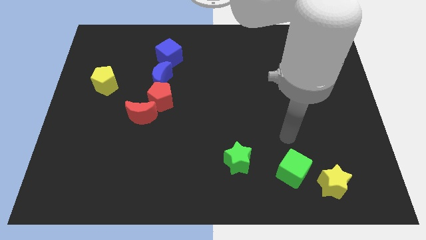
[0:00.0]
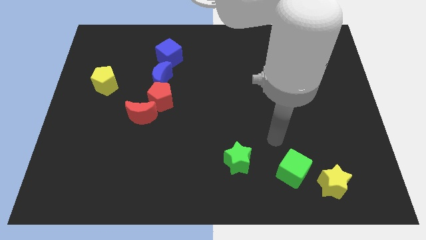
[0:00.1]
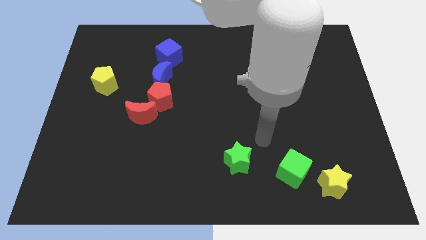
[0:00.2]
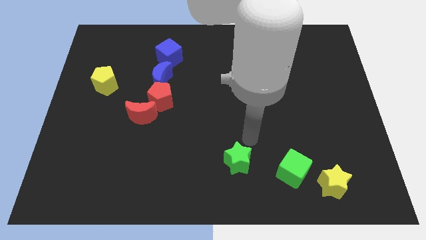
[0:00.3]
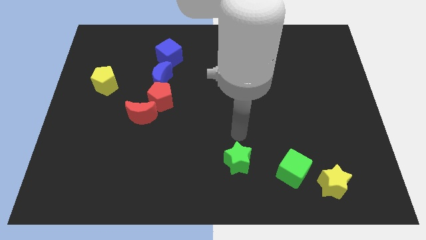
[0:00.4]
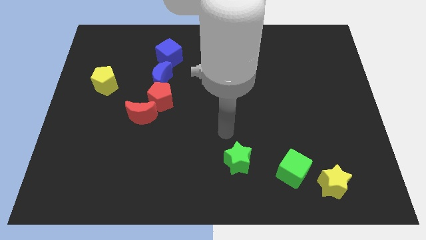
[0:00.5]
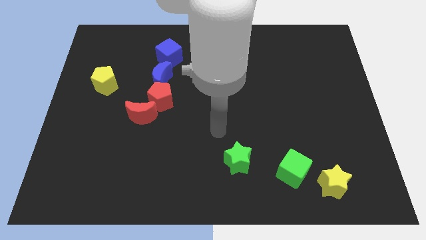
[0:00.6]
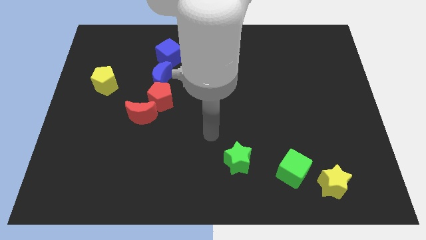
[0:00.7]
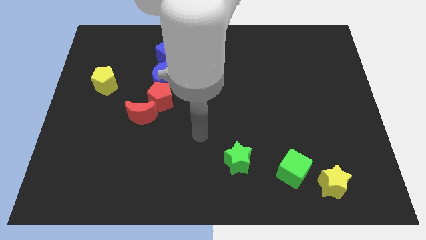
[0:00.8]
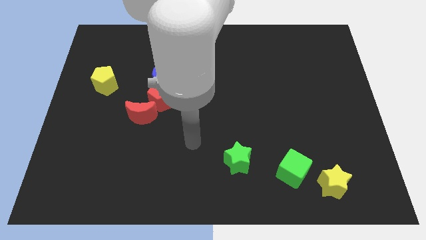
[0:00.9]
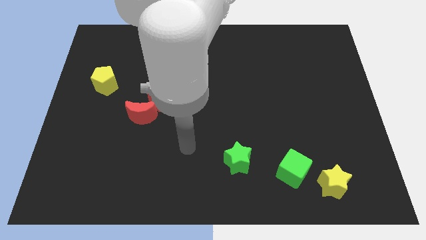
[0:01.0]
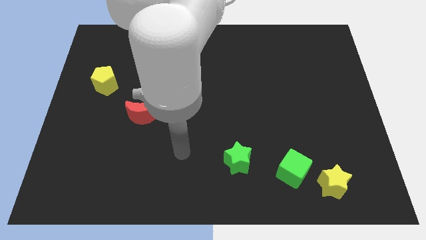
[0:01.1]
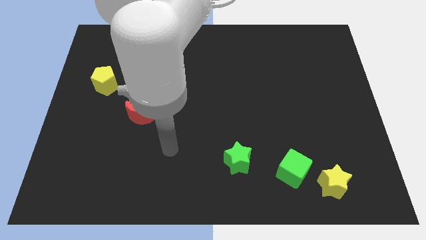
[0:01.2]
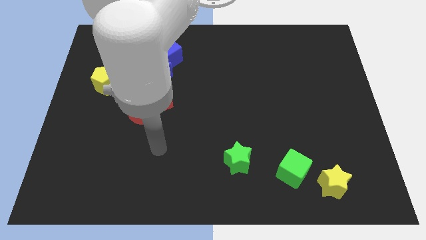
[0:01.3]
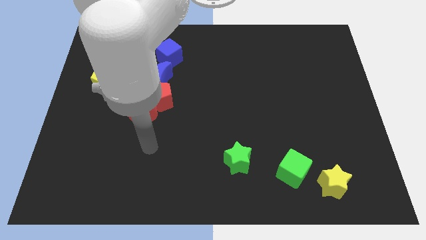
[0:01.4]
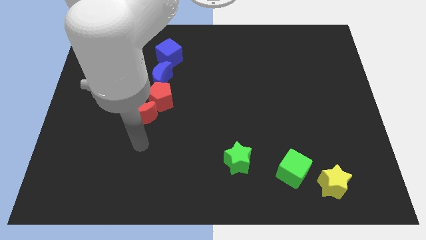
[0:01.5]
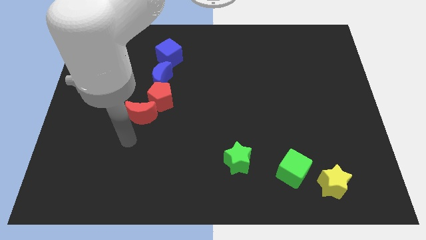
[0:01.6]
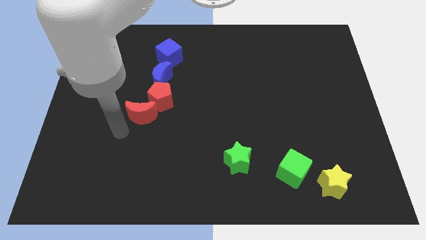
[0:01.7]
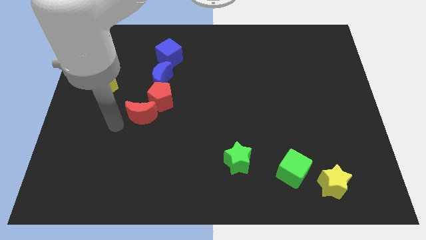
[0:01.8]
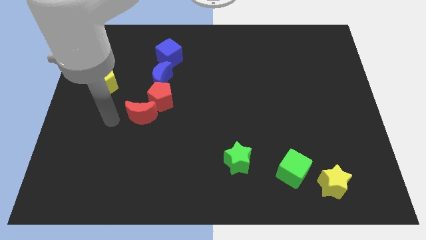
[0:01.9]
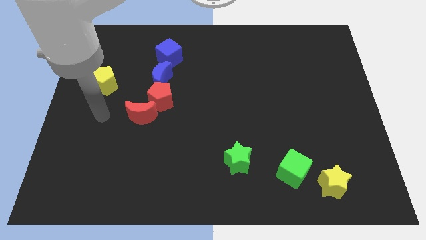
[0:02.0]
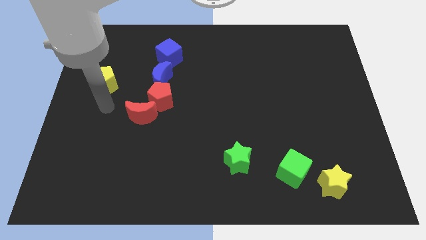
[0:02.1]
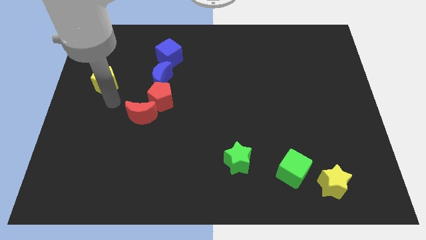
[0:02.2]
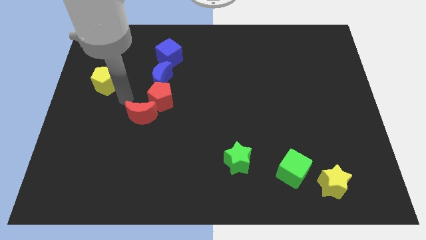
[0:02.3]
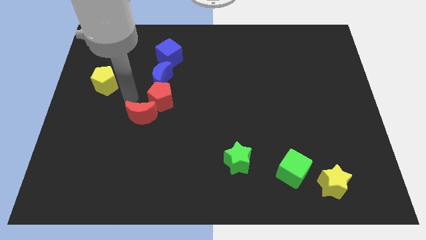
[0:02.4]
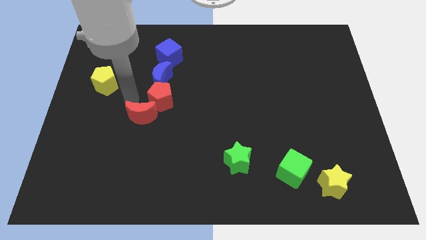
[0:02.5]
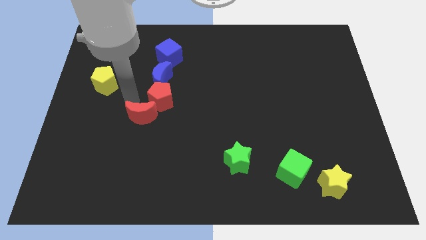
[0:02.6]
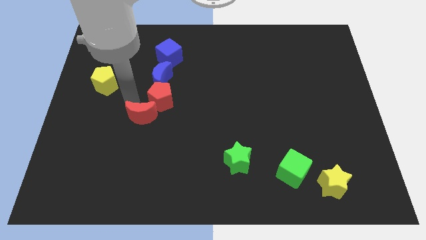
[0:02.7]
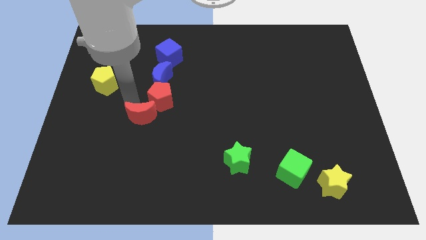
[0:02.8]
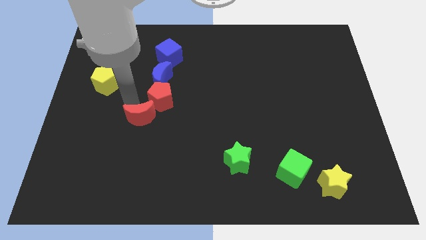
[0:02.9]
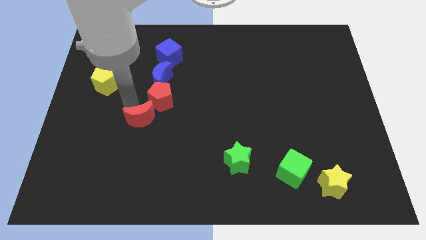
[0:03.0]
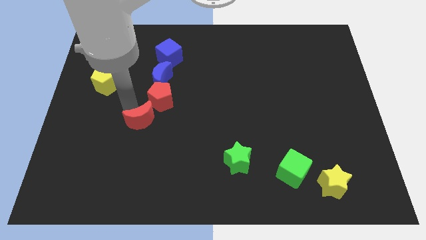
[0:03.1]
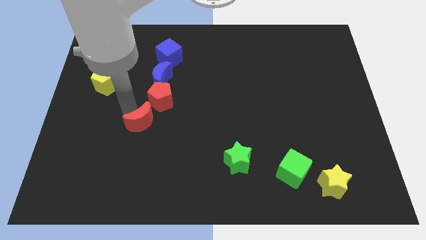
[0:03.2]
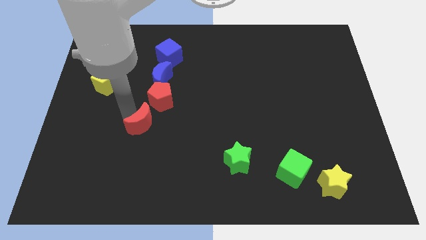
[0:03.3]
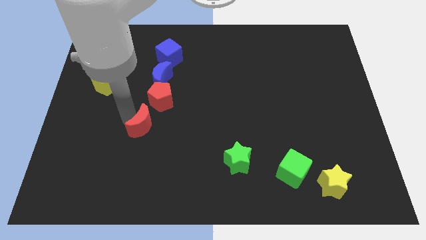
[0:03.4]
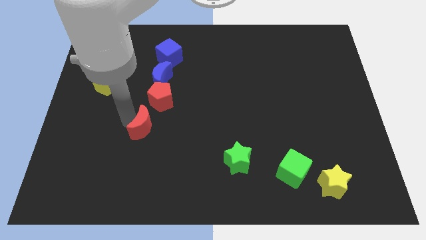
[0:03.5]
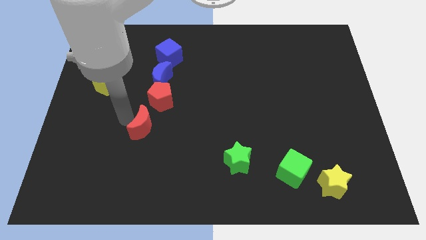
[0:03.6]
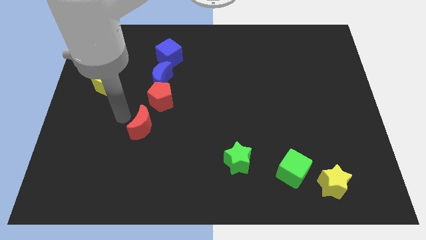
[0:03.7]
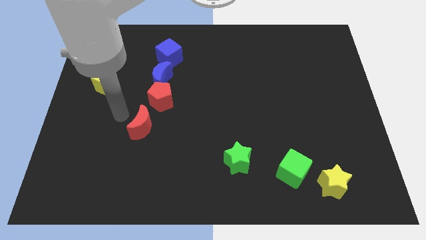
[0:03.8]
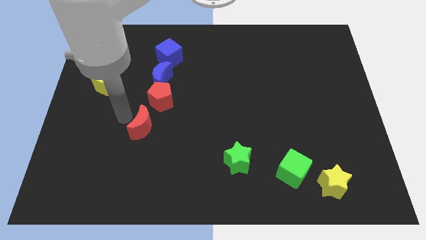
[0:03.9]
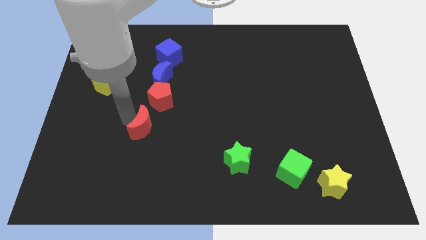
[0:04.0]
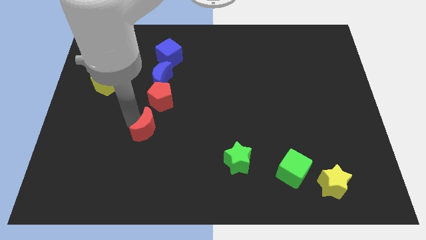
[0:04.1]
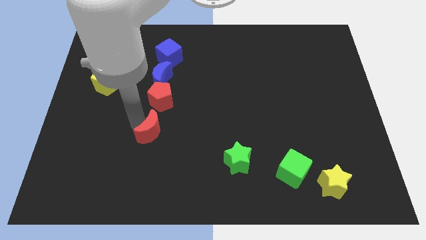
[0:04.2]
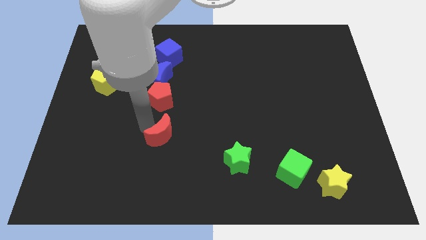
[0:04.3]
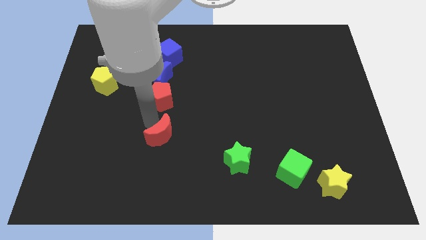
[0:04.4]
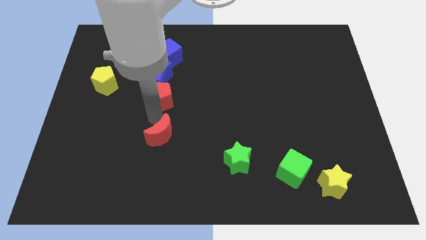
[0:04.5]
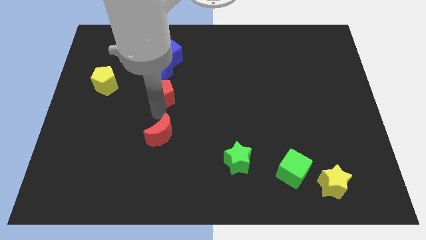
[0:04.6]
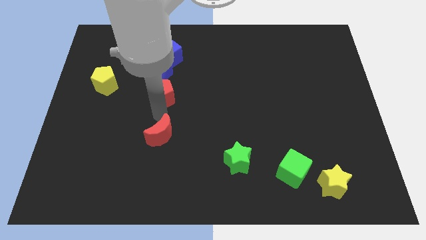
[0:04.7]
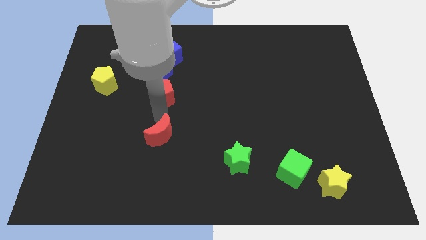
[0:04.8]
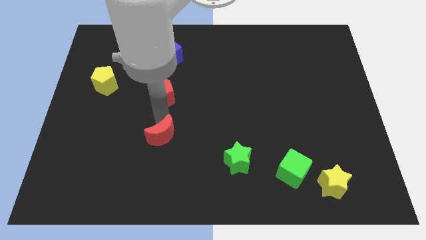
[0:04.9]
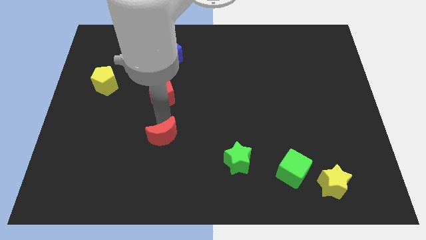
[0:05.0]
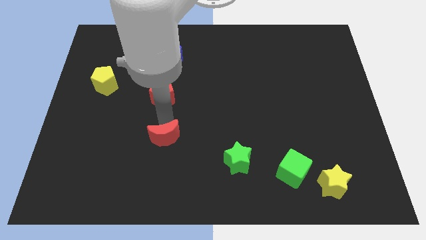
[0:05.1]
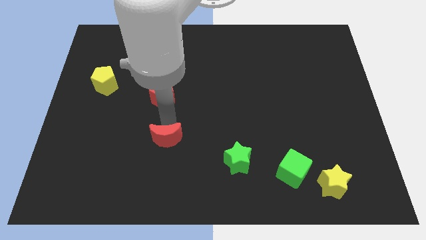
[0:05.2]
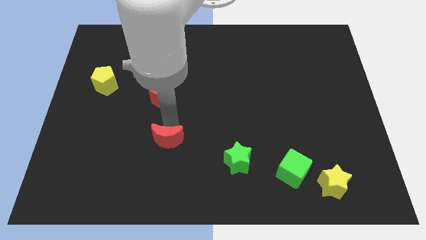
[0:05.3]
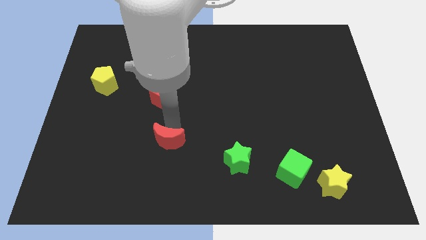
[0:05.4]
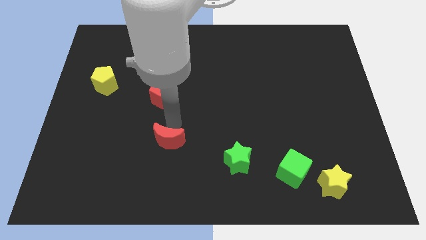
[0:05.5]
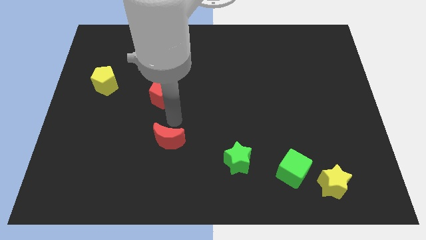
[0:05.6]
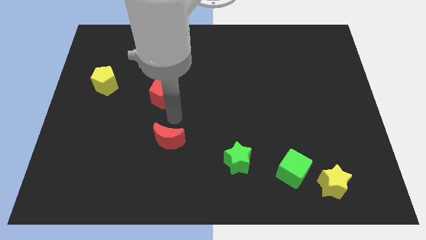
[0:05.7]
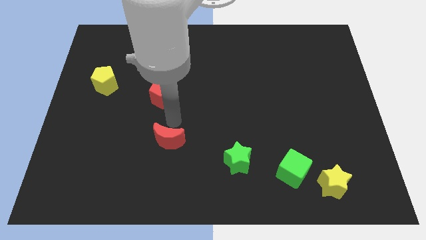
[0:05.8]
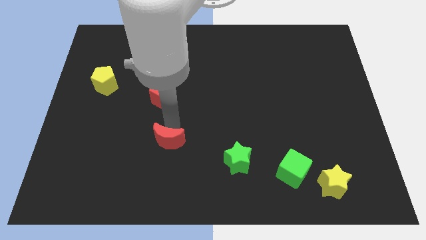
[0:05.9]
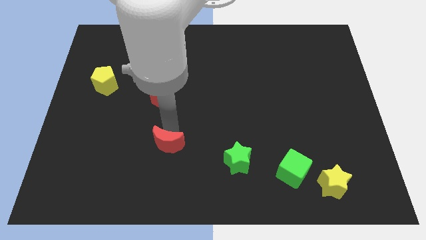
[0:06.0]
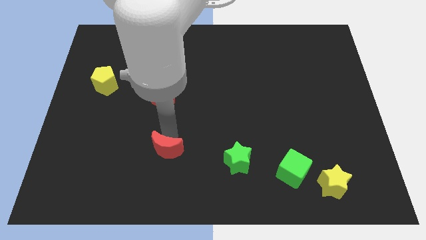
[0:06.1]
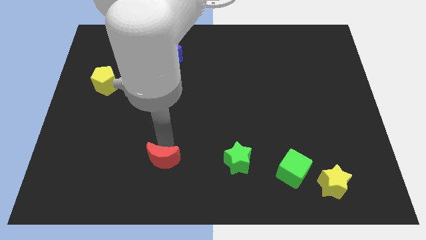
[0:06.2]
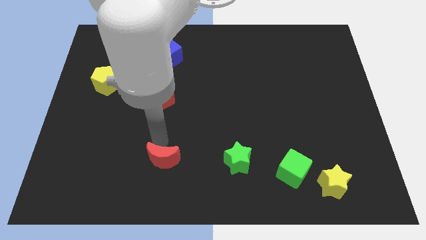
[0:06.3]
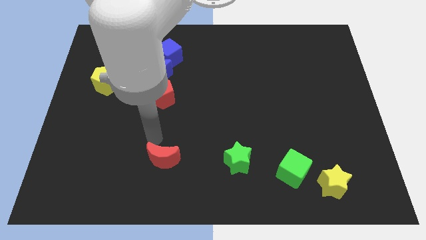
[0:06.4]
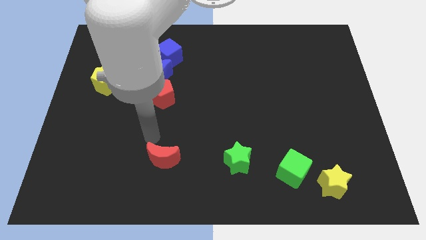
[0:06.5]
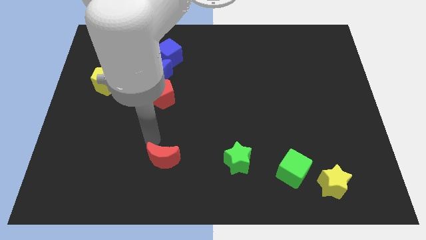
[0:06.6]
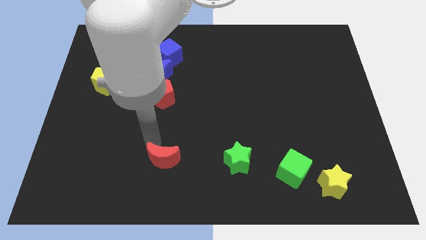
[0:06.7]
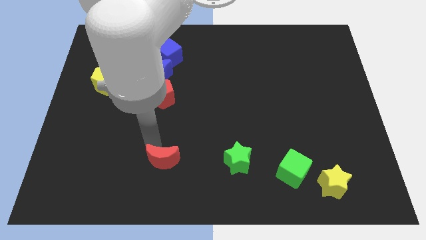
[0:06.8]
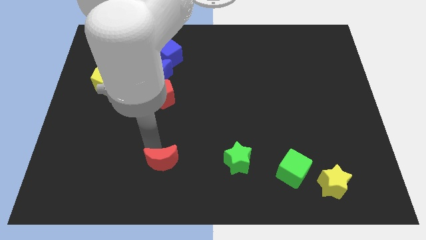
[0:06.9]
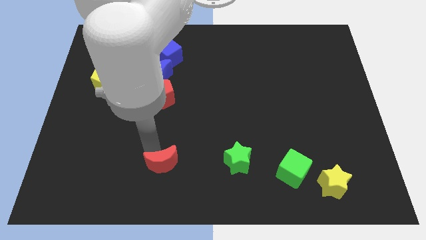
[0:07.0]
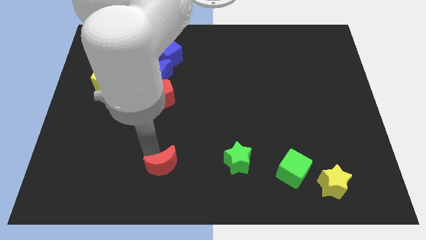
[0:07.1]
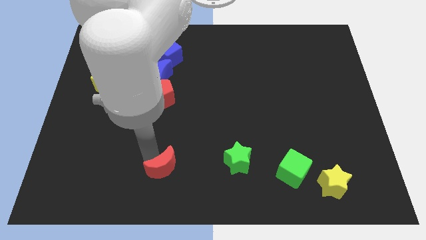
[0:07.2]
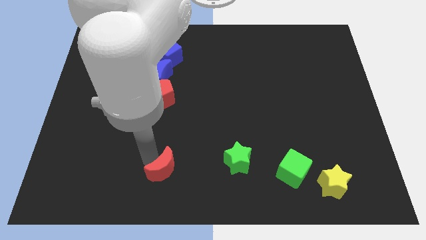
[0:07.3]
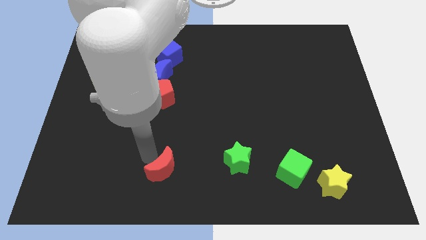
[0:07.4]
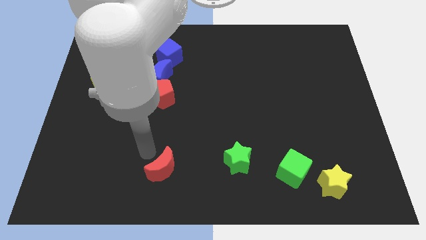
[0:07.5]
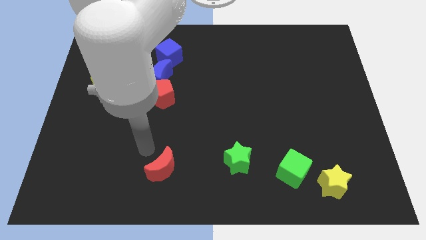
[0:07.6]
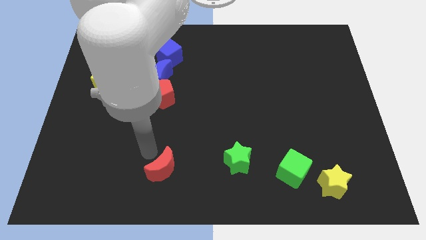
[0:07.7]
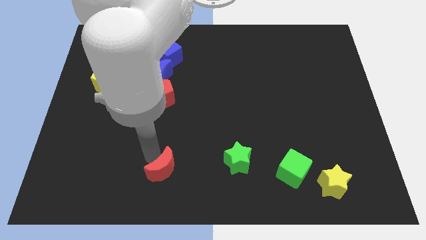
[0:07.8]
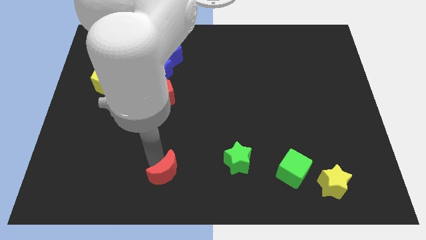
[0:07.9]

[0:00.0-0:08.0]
put the red moon to the bottom
